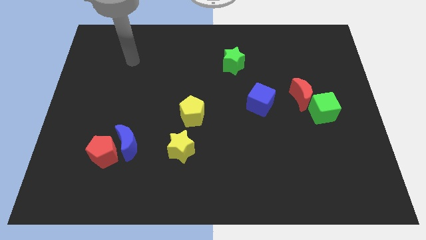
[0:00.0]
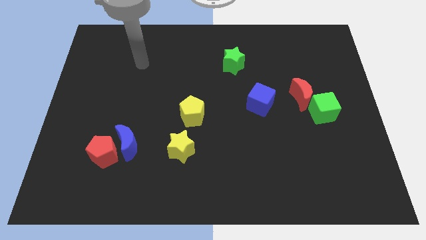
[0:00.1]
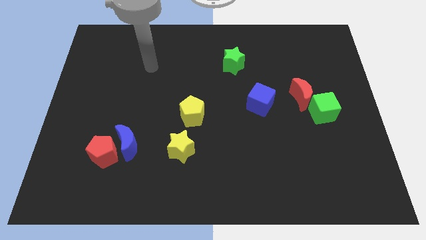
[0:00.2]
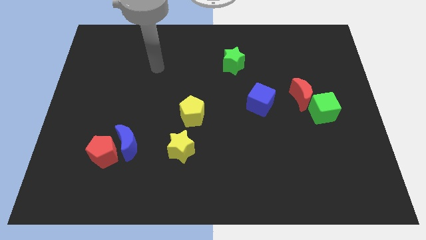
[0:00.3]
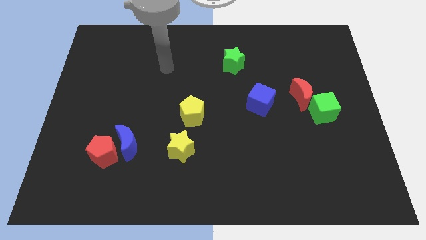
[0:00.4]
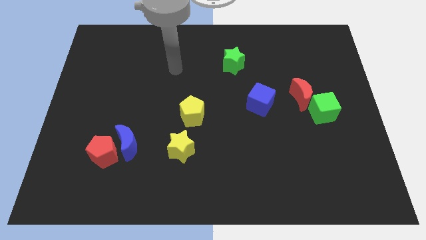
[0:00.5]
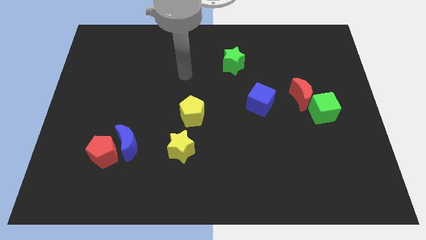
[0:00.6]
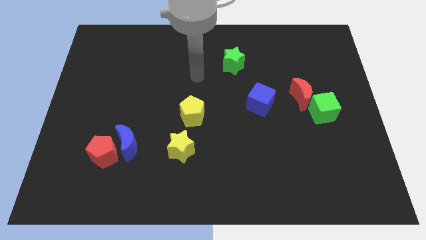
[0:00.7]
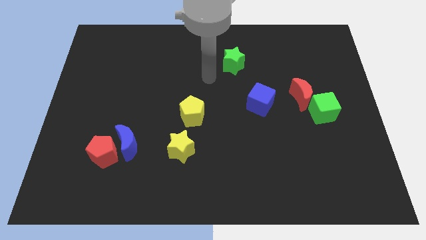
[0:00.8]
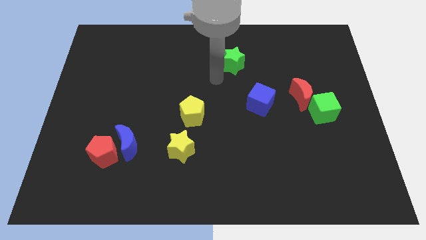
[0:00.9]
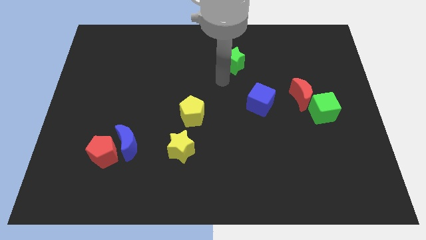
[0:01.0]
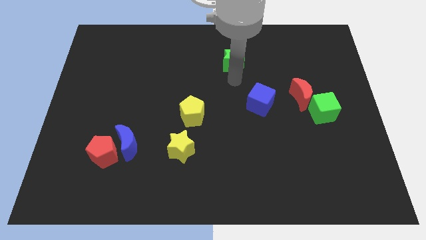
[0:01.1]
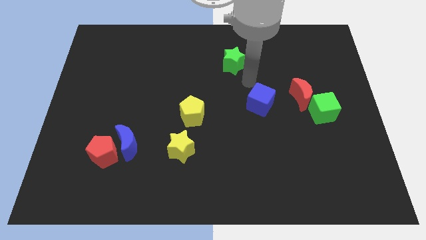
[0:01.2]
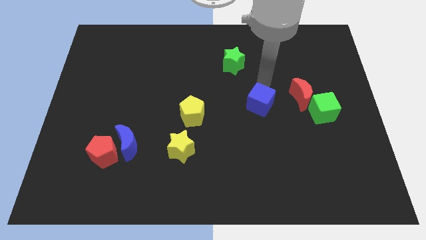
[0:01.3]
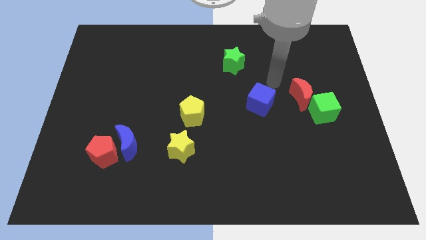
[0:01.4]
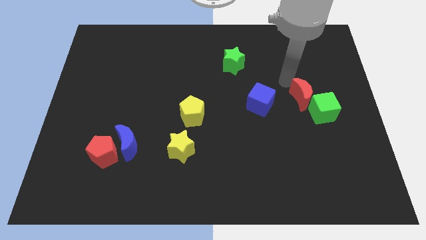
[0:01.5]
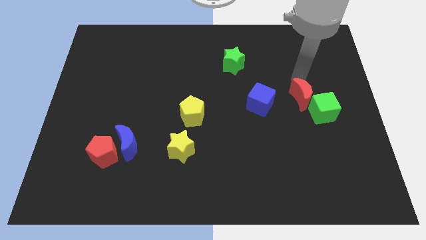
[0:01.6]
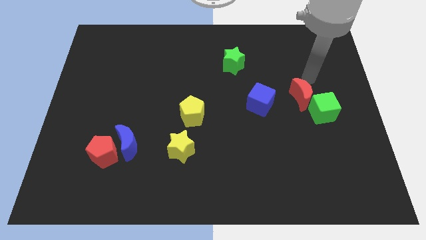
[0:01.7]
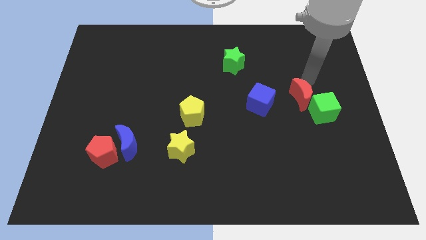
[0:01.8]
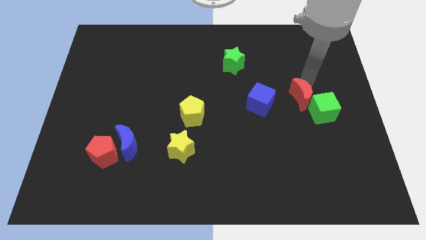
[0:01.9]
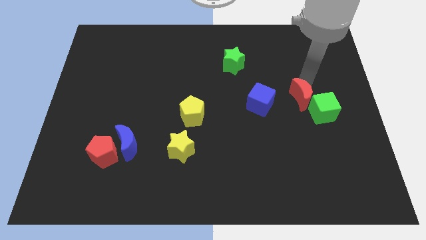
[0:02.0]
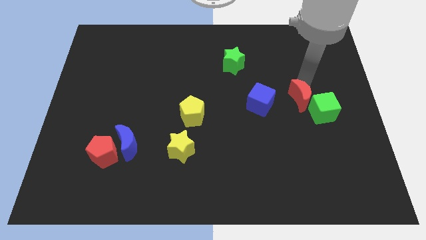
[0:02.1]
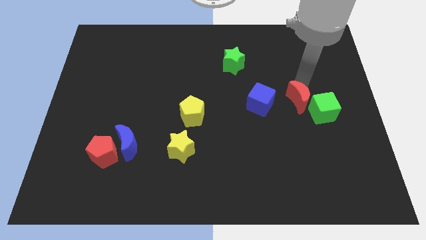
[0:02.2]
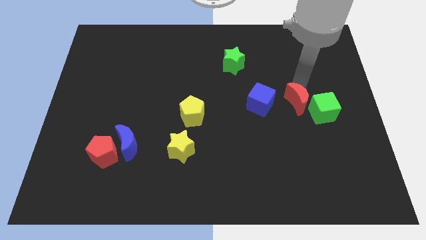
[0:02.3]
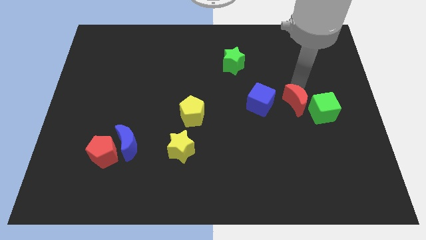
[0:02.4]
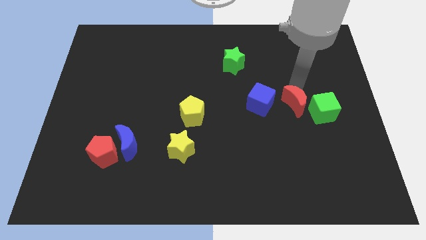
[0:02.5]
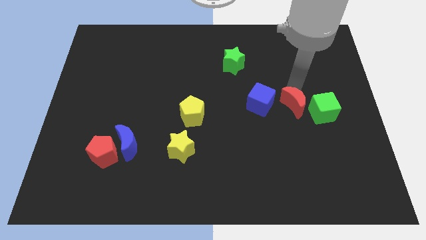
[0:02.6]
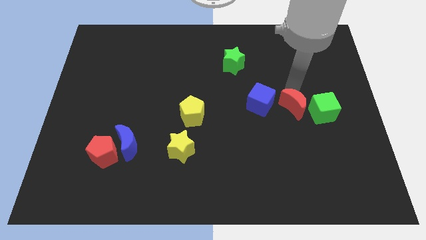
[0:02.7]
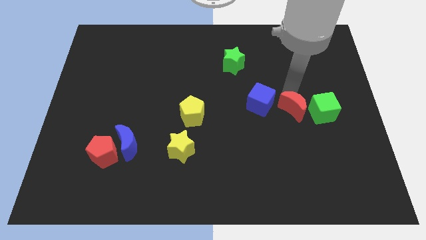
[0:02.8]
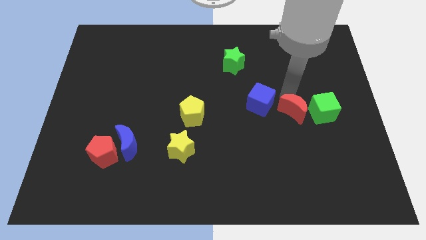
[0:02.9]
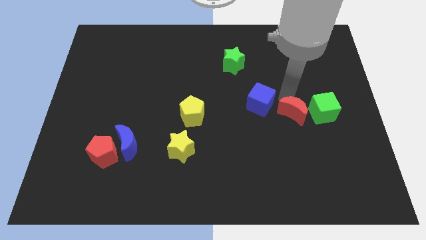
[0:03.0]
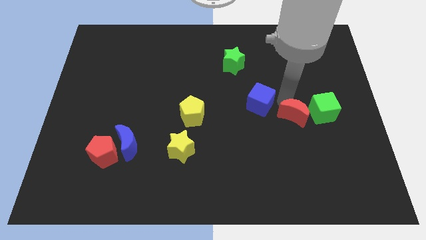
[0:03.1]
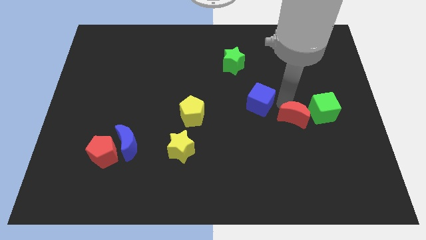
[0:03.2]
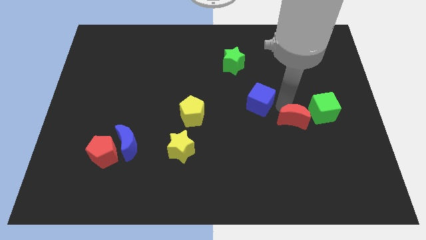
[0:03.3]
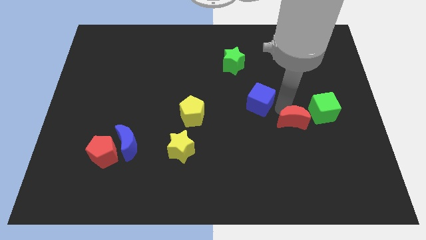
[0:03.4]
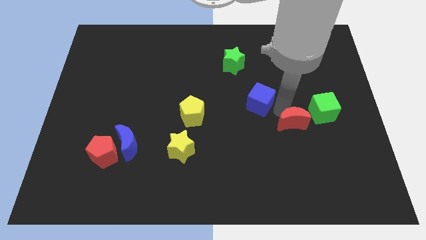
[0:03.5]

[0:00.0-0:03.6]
slide the red moon a bit downwards

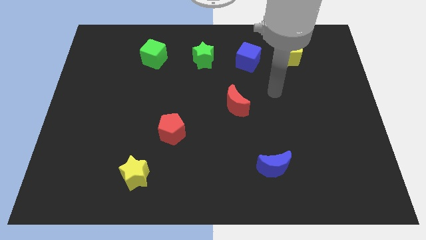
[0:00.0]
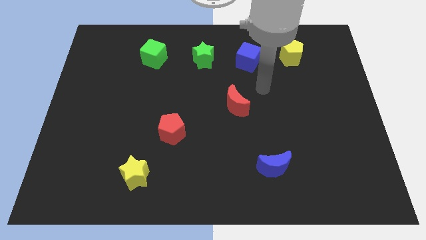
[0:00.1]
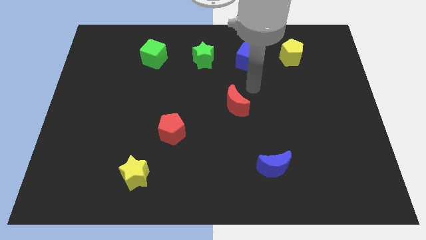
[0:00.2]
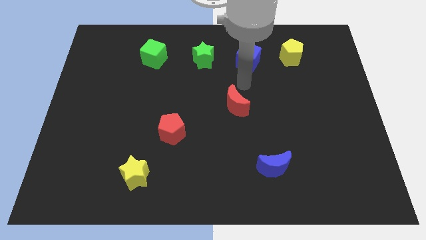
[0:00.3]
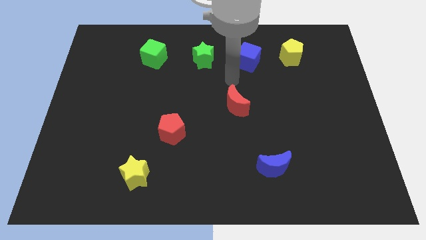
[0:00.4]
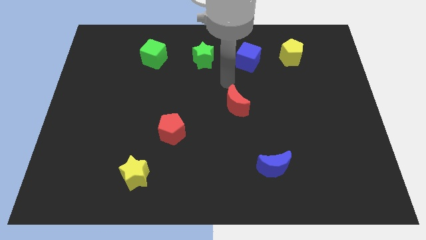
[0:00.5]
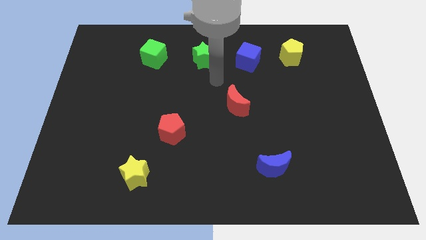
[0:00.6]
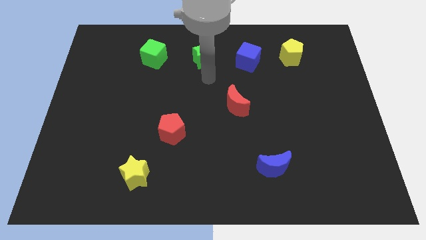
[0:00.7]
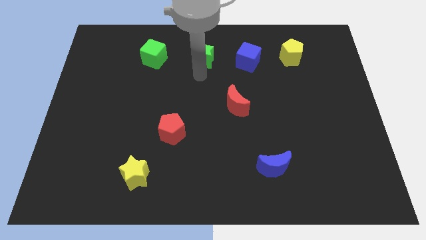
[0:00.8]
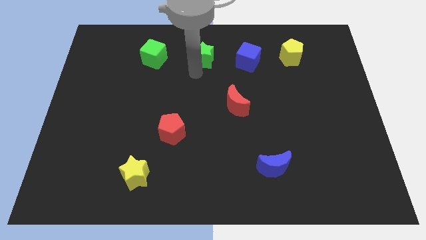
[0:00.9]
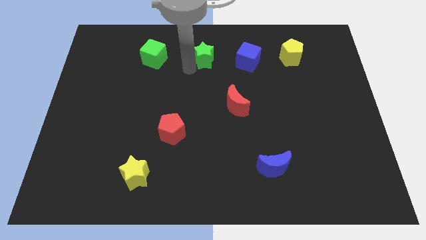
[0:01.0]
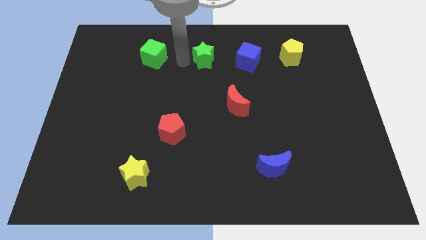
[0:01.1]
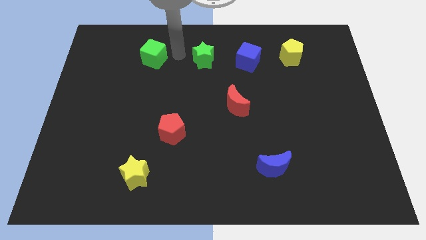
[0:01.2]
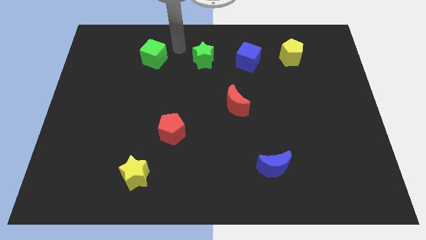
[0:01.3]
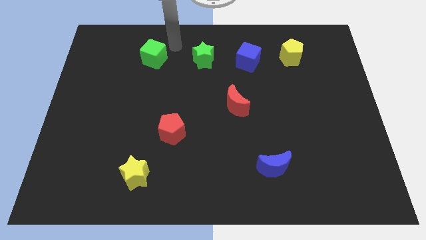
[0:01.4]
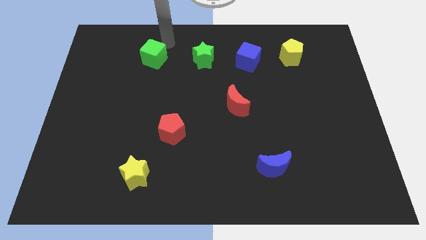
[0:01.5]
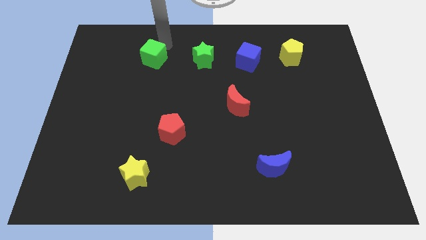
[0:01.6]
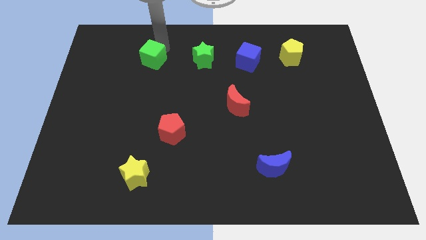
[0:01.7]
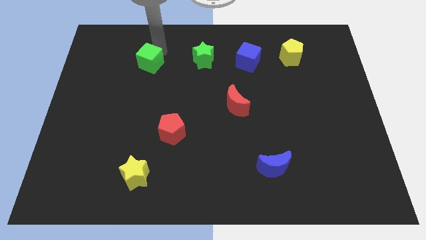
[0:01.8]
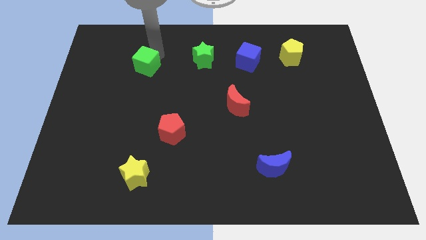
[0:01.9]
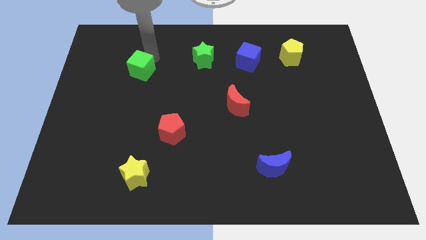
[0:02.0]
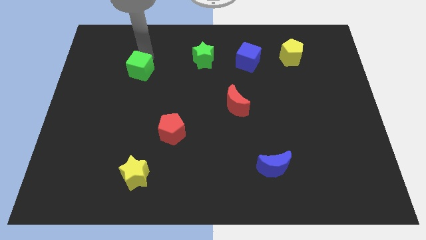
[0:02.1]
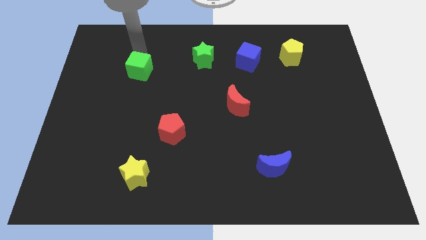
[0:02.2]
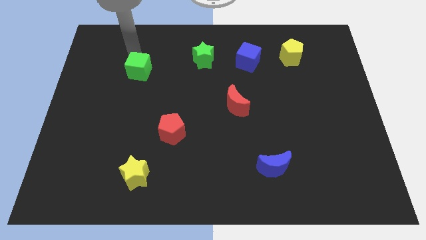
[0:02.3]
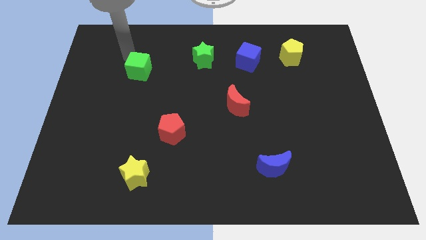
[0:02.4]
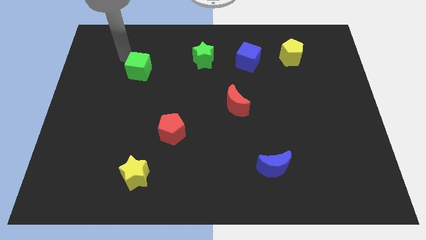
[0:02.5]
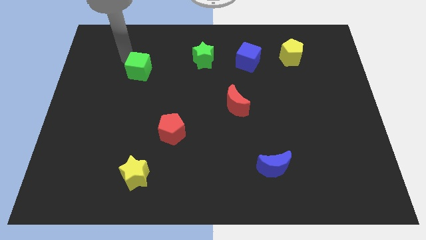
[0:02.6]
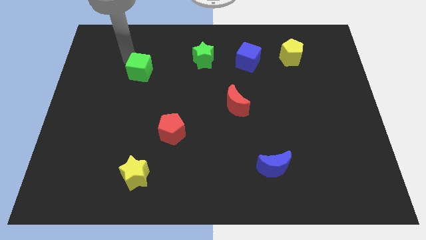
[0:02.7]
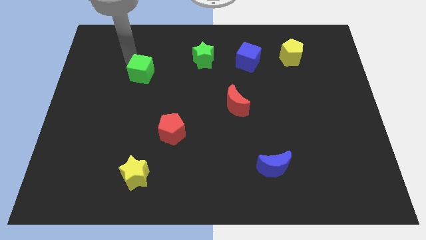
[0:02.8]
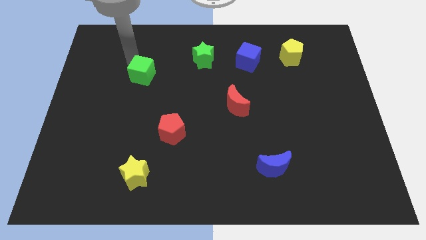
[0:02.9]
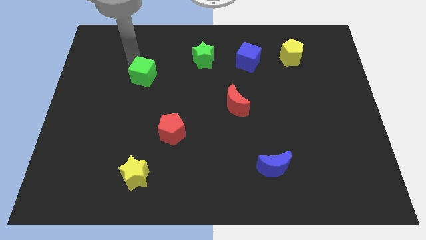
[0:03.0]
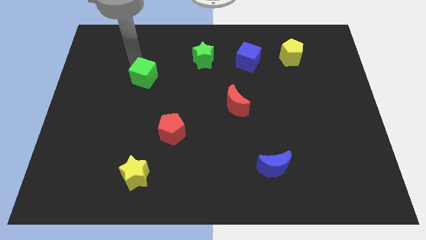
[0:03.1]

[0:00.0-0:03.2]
slide the green cube a little bit down

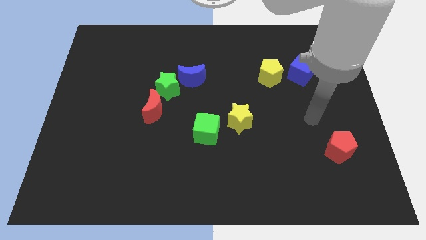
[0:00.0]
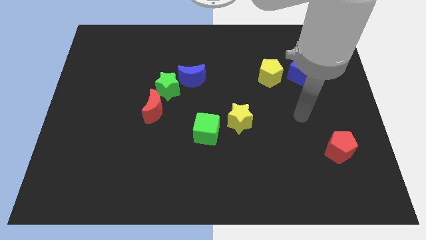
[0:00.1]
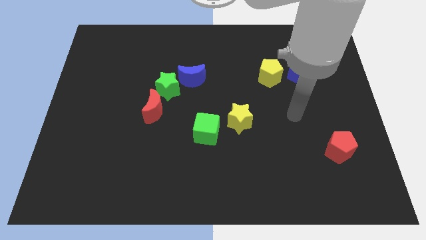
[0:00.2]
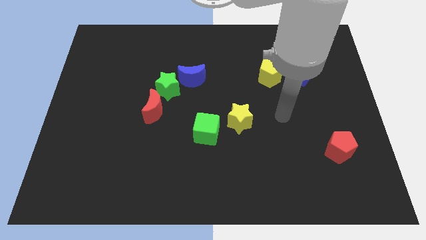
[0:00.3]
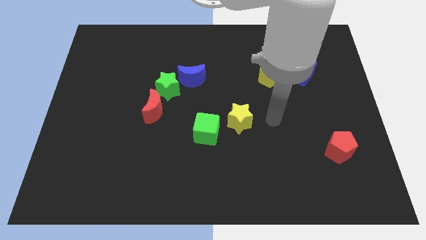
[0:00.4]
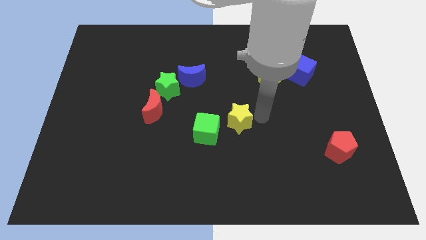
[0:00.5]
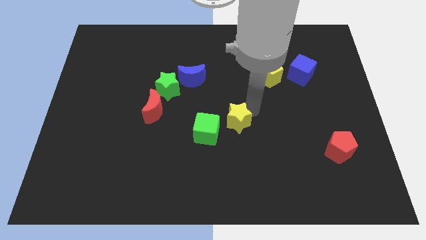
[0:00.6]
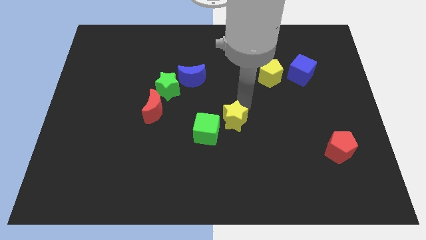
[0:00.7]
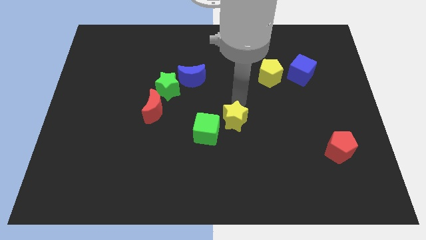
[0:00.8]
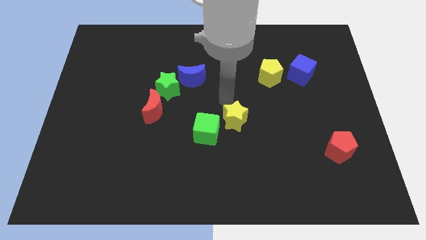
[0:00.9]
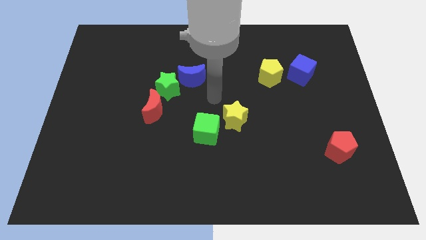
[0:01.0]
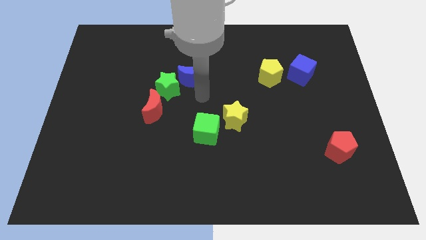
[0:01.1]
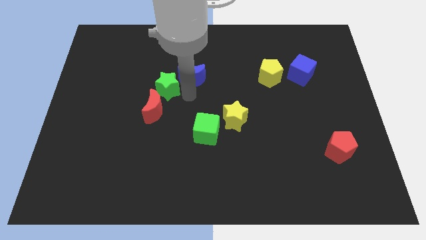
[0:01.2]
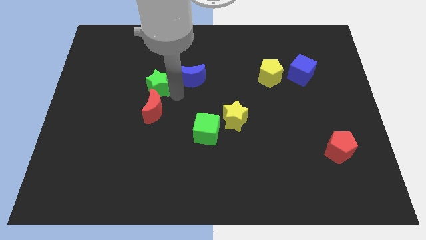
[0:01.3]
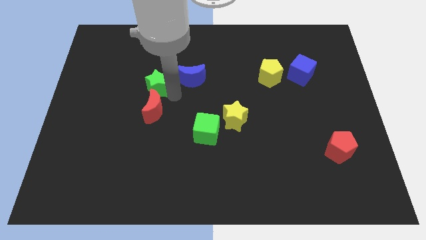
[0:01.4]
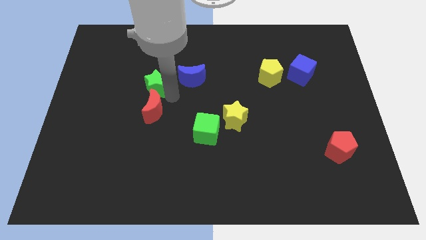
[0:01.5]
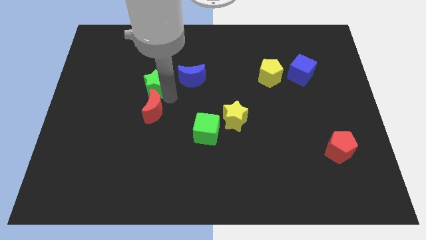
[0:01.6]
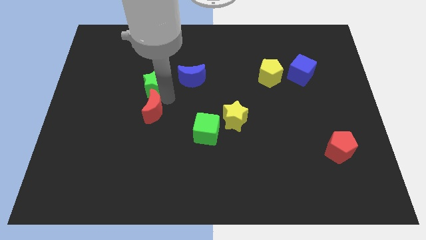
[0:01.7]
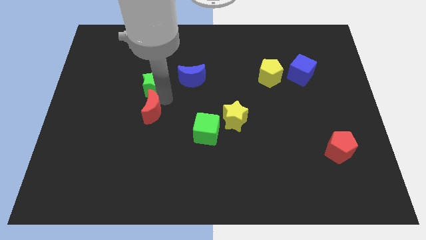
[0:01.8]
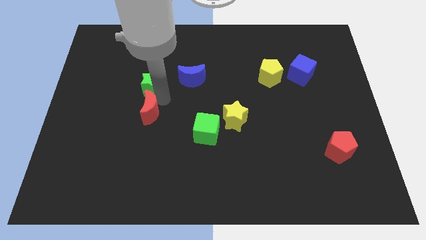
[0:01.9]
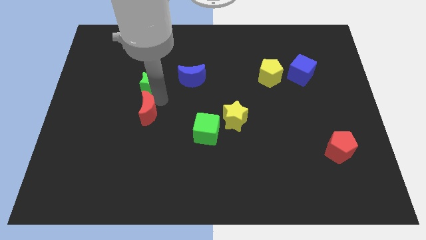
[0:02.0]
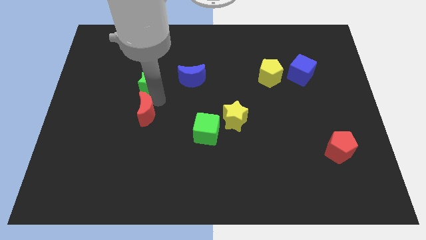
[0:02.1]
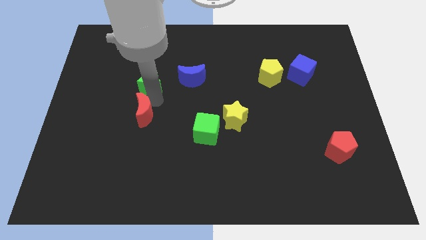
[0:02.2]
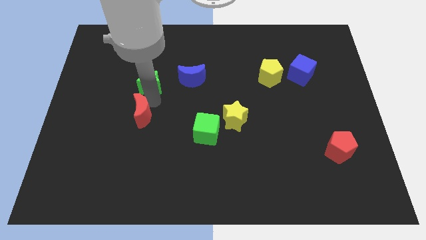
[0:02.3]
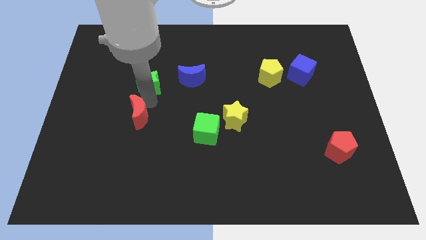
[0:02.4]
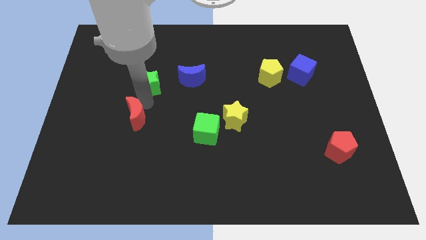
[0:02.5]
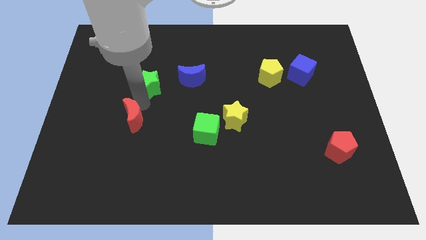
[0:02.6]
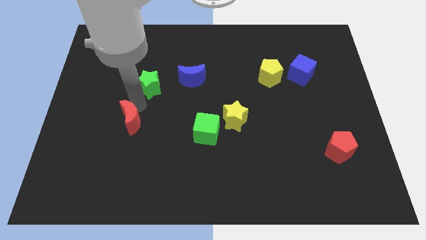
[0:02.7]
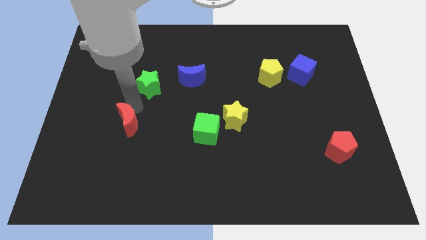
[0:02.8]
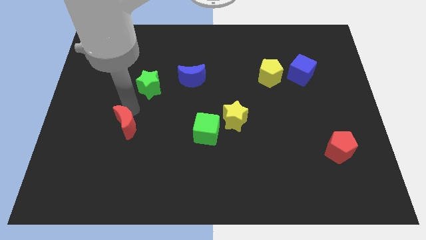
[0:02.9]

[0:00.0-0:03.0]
slightly slide the red moon down and left diagonally
